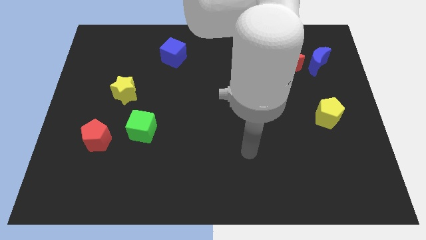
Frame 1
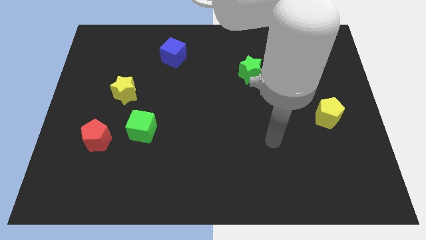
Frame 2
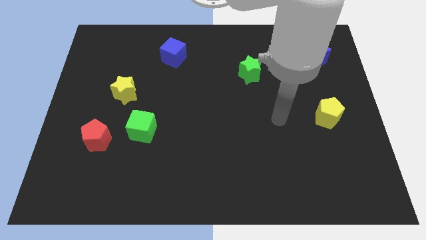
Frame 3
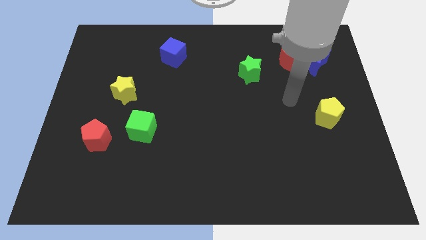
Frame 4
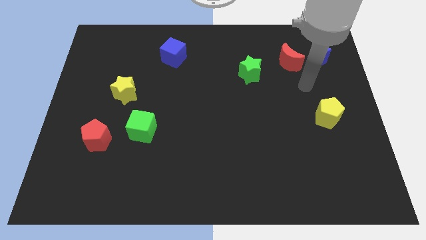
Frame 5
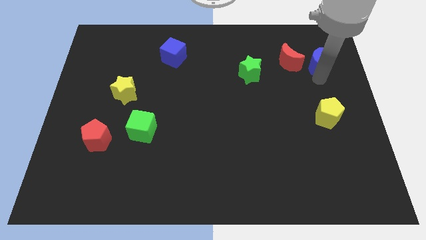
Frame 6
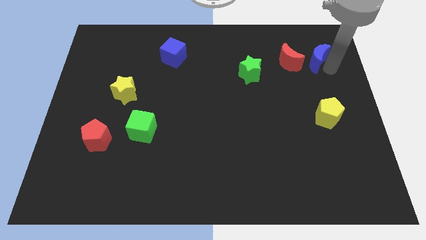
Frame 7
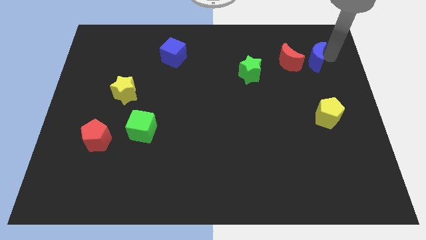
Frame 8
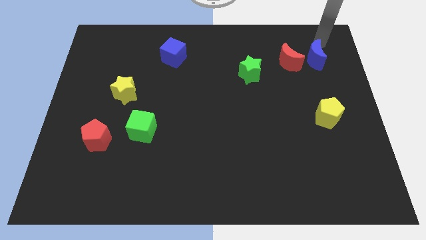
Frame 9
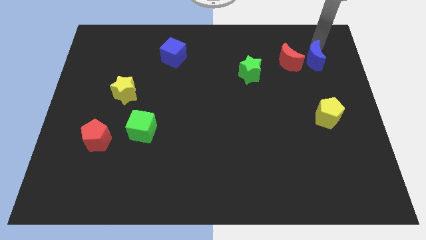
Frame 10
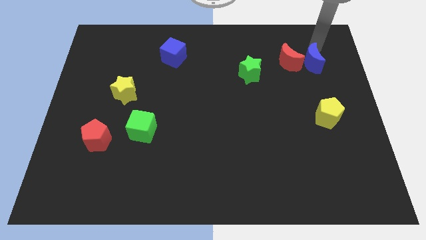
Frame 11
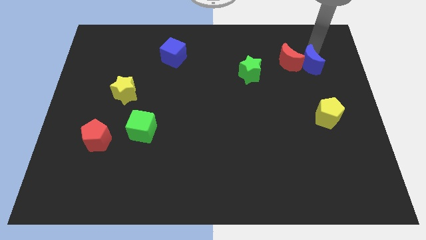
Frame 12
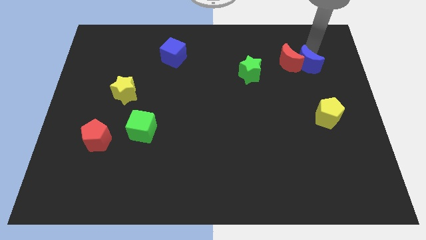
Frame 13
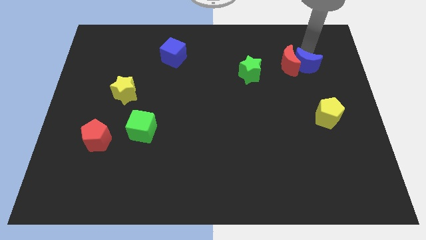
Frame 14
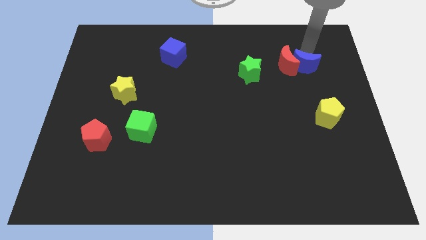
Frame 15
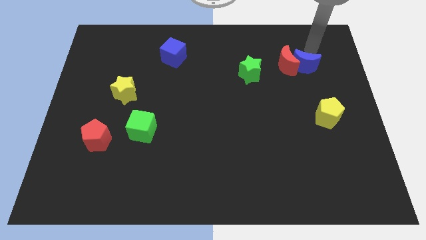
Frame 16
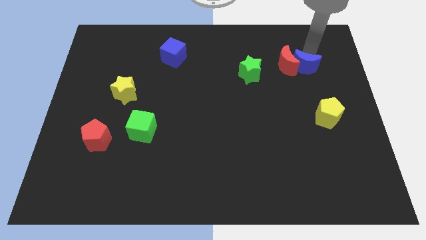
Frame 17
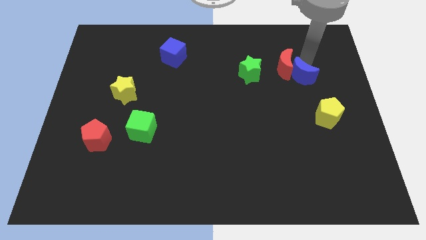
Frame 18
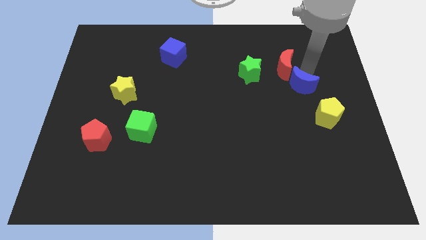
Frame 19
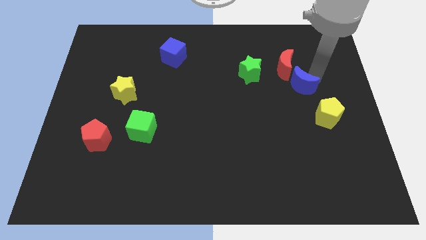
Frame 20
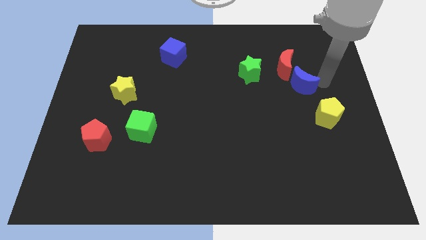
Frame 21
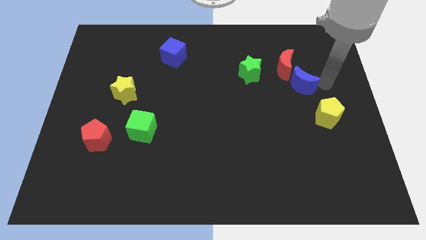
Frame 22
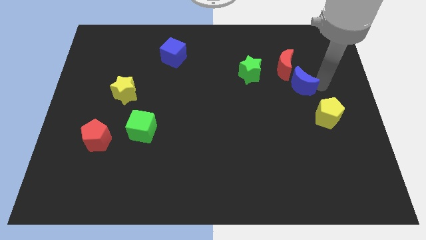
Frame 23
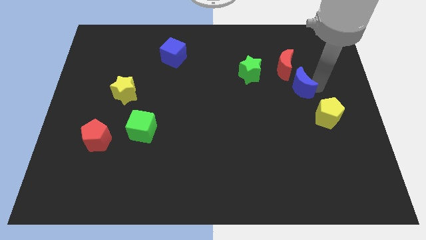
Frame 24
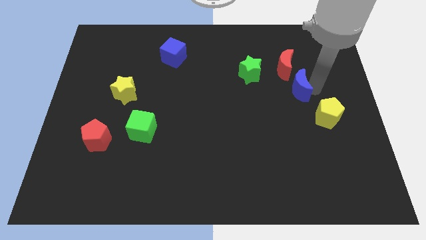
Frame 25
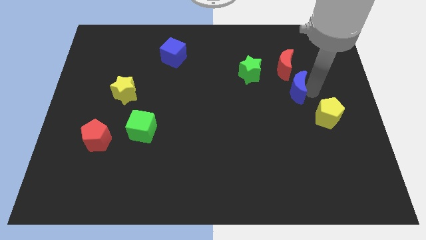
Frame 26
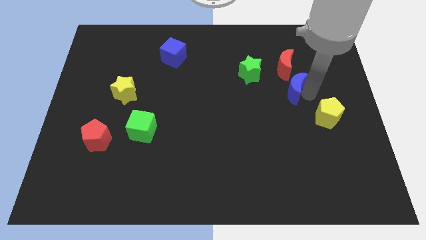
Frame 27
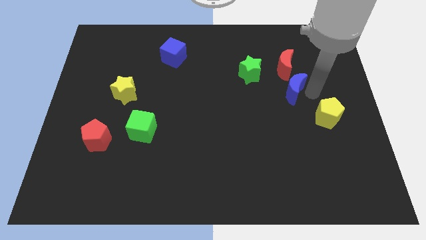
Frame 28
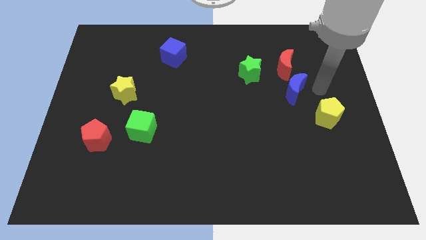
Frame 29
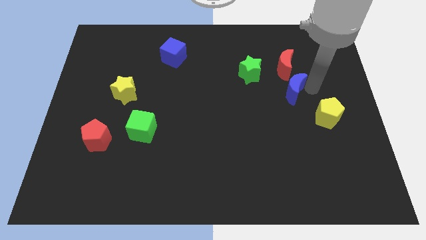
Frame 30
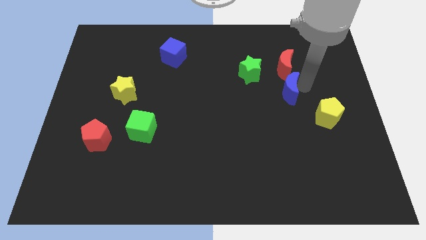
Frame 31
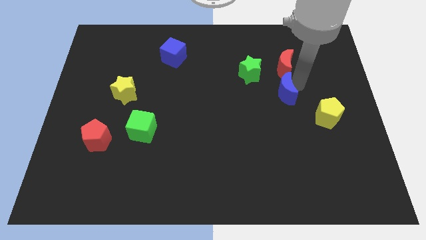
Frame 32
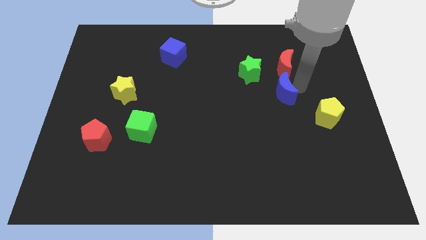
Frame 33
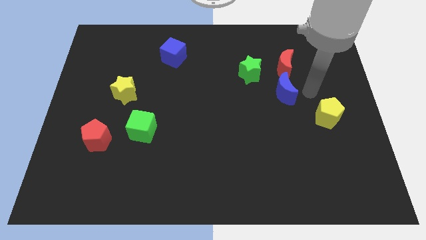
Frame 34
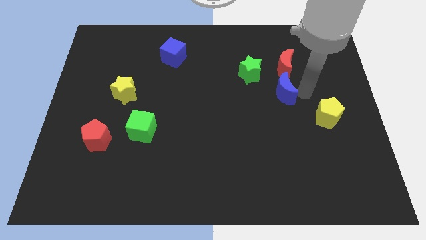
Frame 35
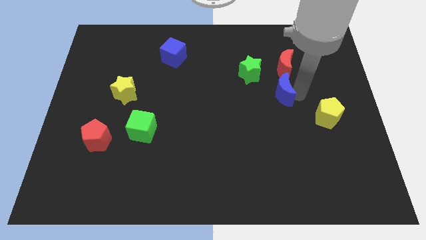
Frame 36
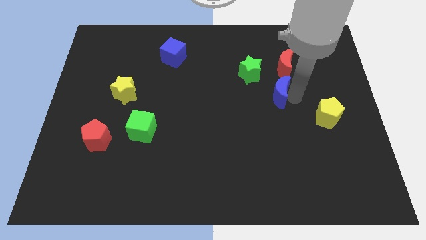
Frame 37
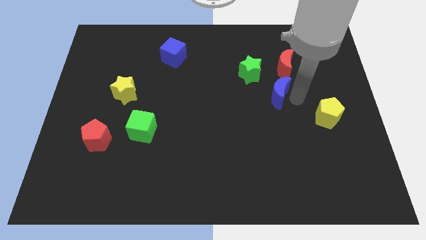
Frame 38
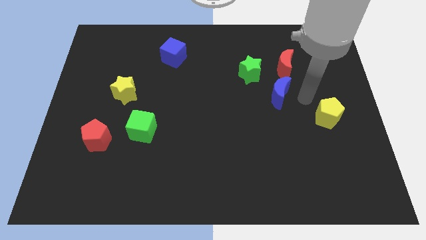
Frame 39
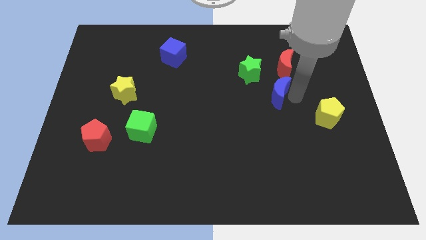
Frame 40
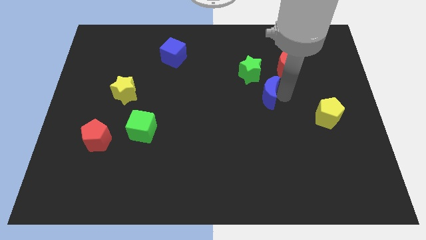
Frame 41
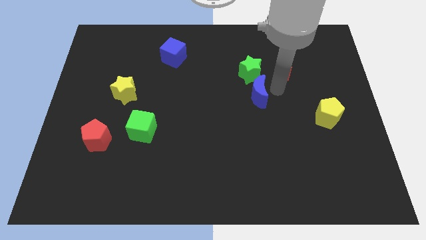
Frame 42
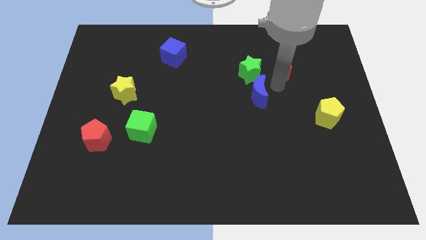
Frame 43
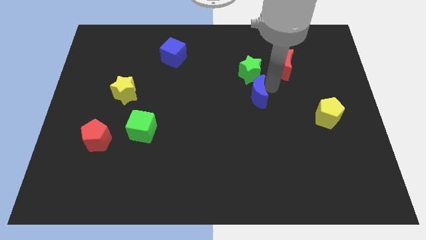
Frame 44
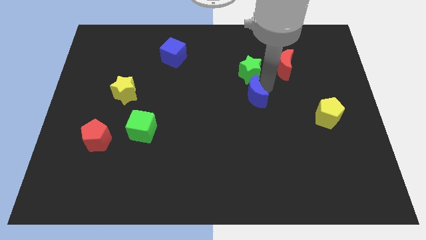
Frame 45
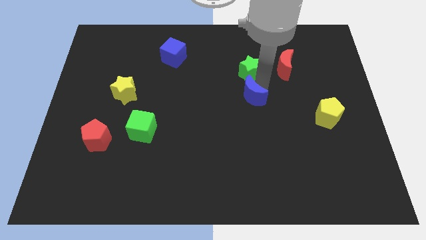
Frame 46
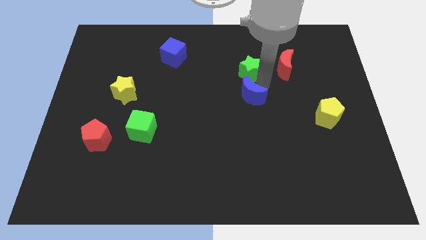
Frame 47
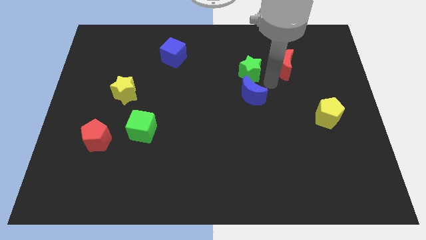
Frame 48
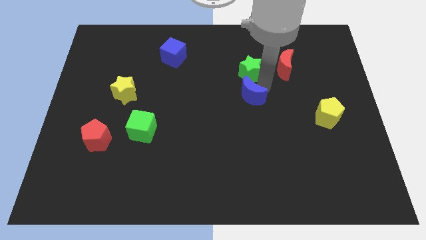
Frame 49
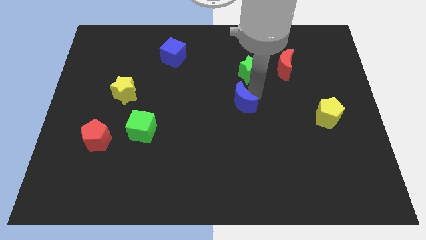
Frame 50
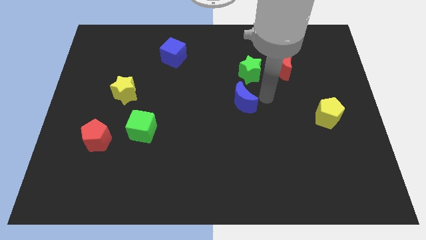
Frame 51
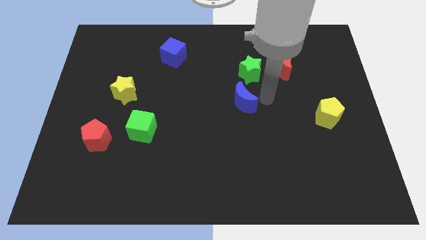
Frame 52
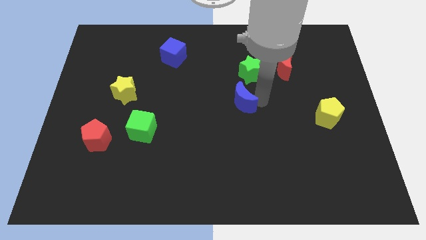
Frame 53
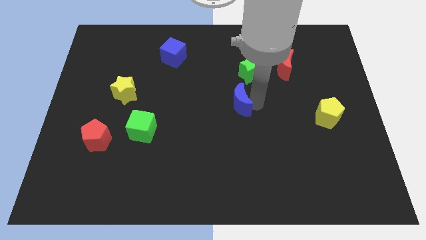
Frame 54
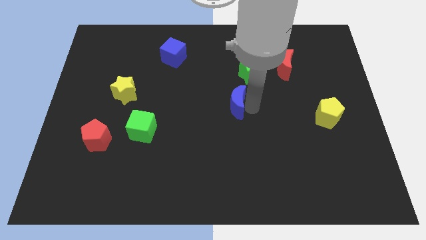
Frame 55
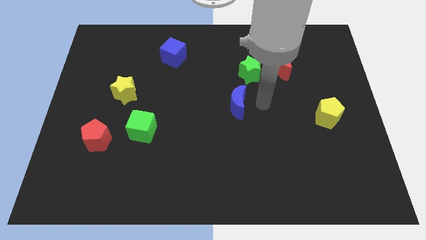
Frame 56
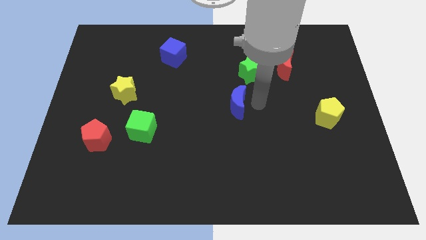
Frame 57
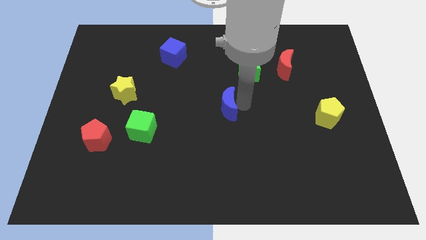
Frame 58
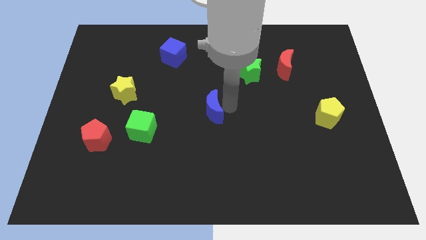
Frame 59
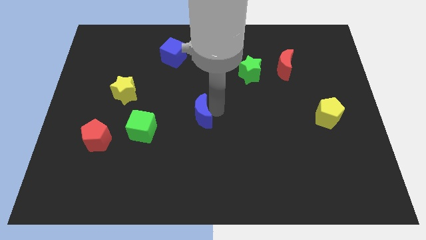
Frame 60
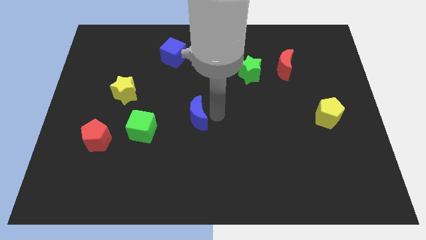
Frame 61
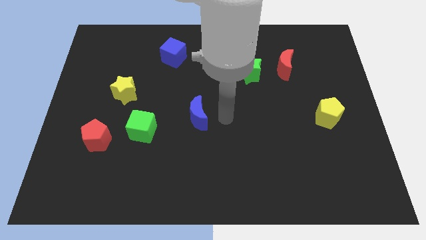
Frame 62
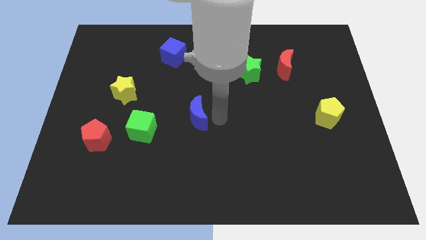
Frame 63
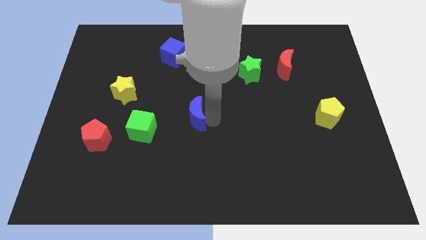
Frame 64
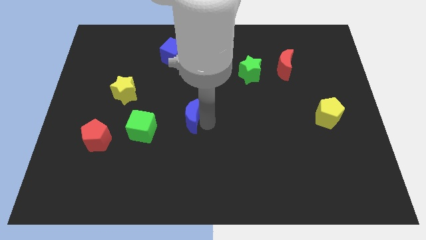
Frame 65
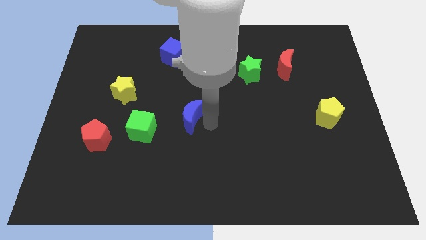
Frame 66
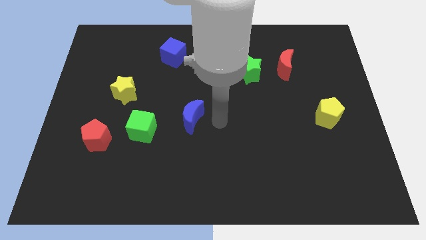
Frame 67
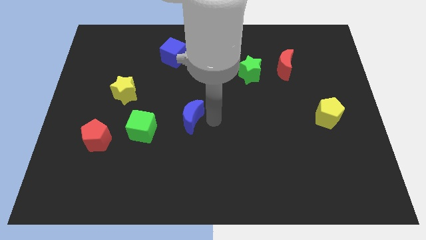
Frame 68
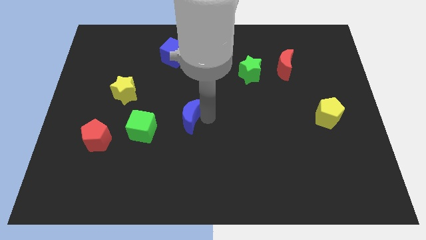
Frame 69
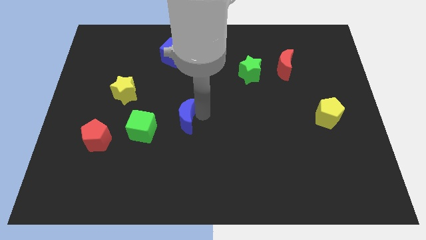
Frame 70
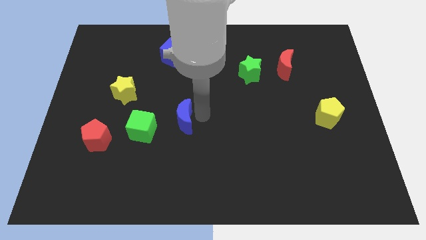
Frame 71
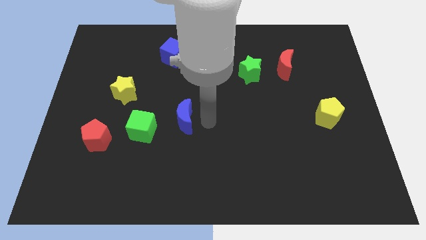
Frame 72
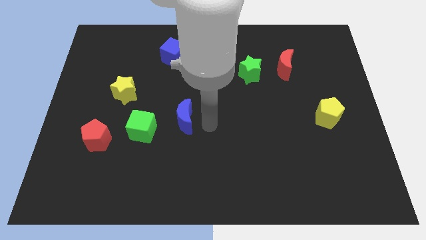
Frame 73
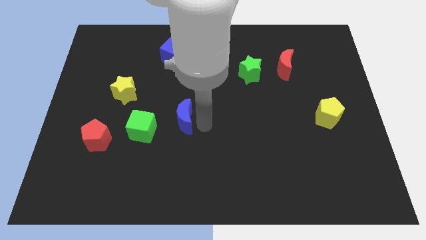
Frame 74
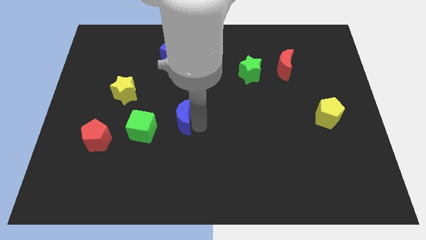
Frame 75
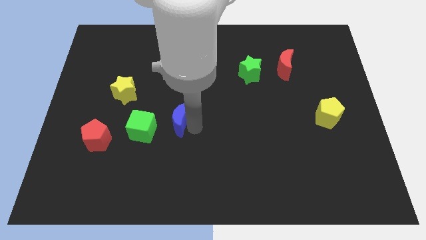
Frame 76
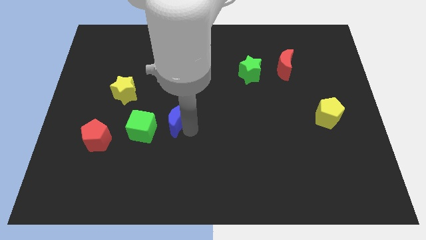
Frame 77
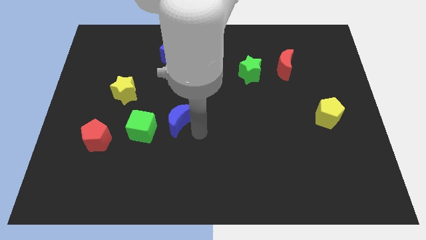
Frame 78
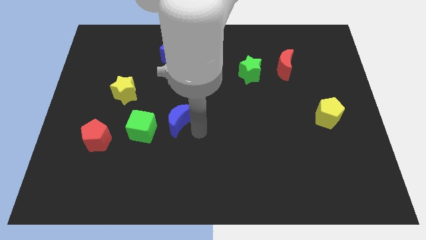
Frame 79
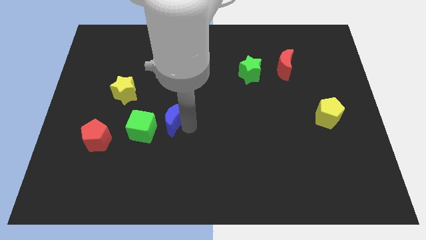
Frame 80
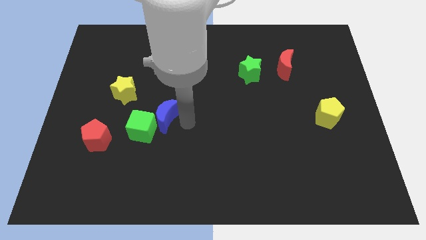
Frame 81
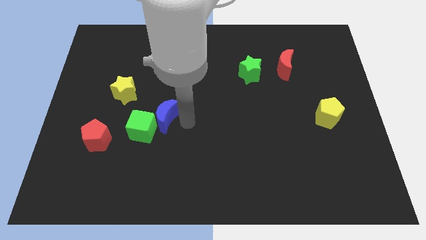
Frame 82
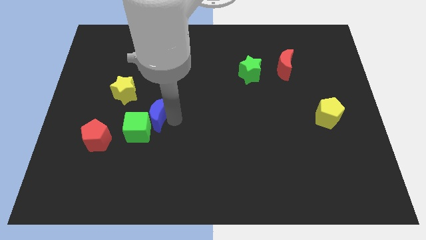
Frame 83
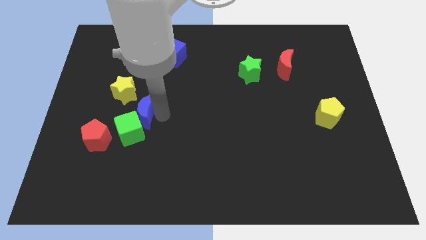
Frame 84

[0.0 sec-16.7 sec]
push the blue moon diagonally up and to the right of the red pentagon
